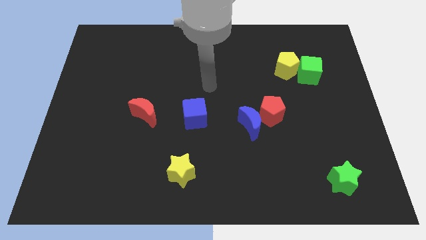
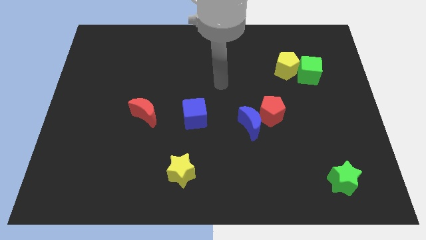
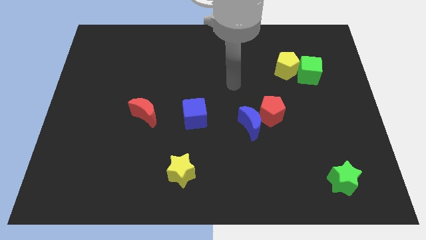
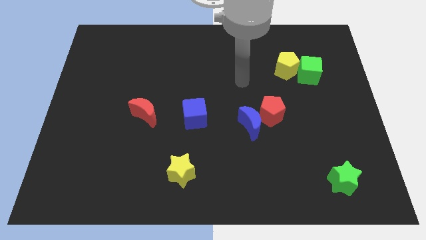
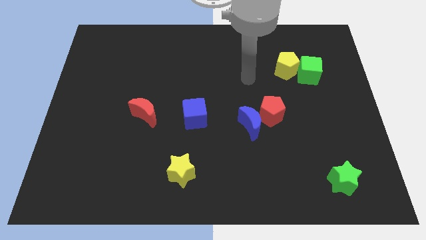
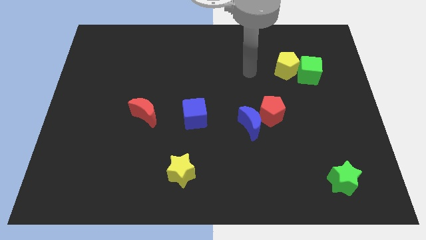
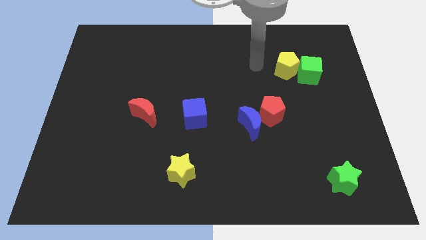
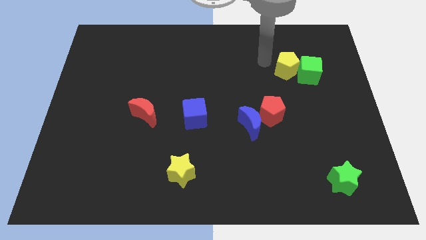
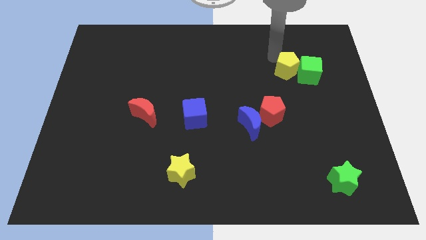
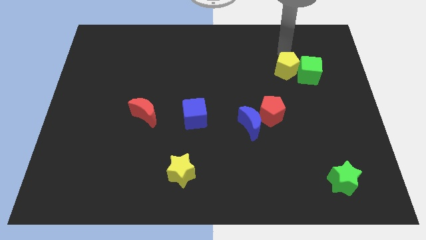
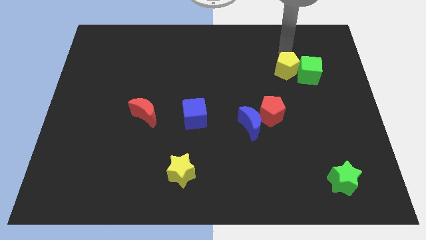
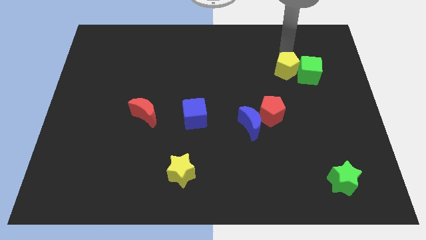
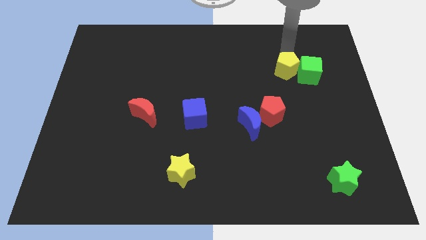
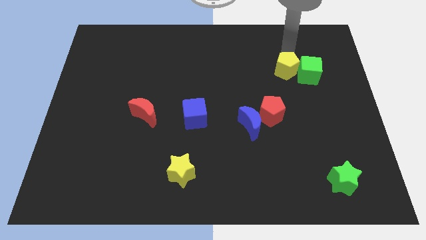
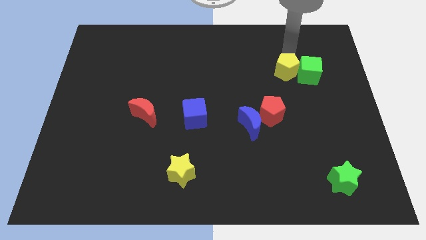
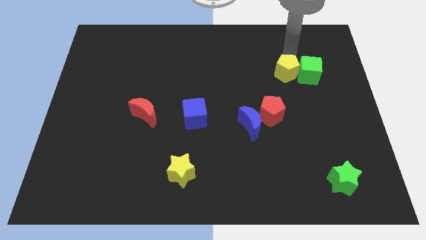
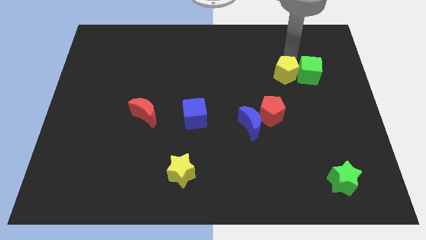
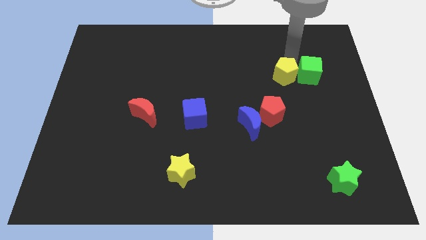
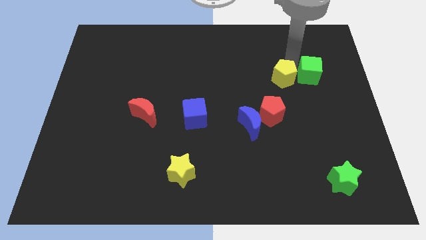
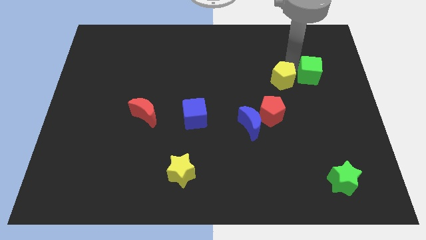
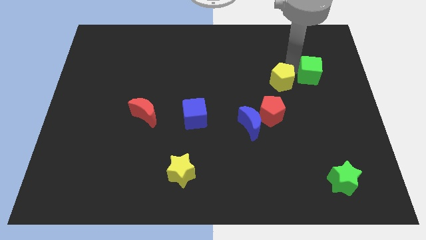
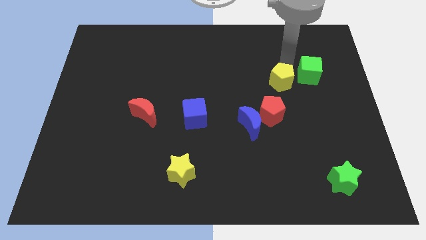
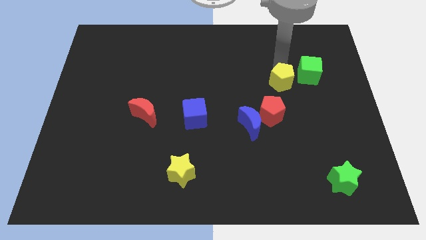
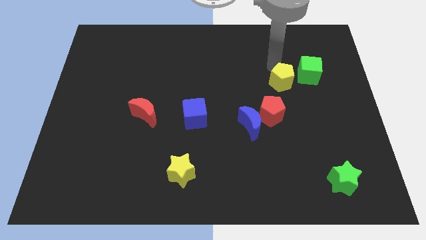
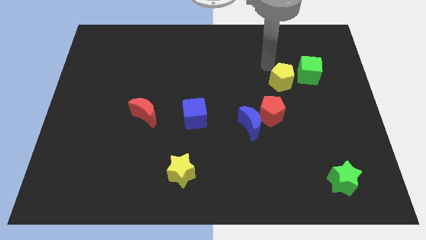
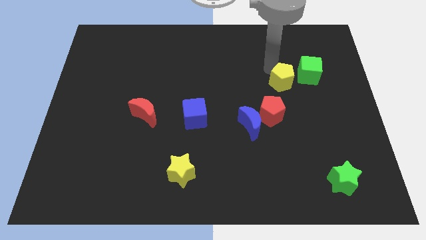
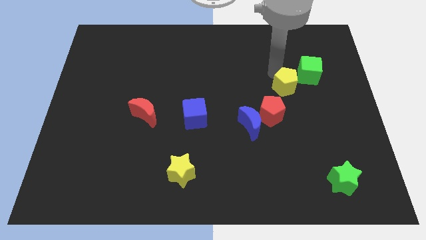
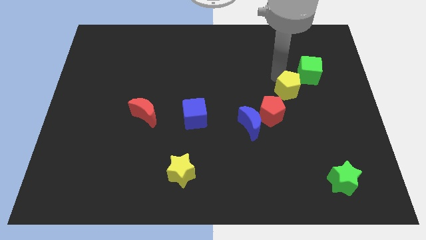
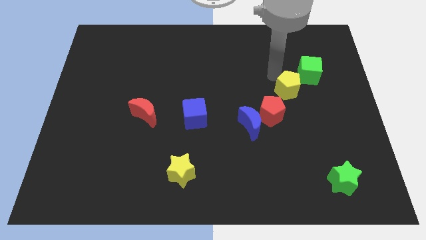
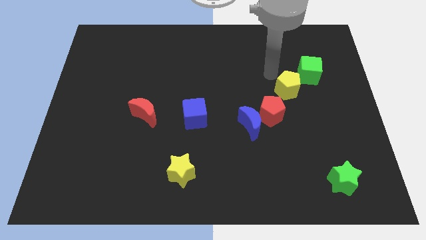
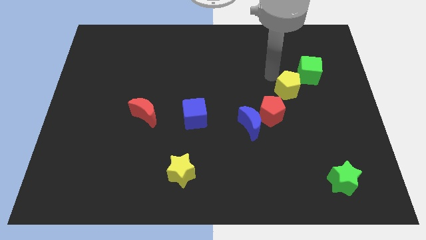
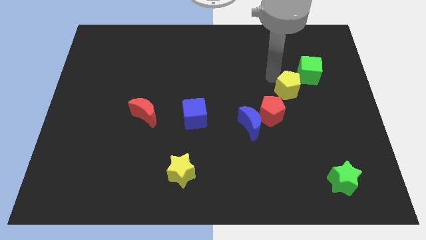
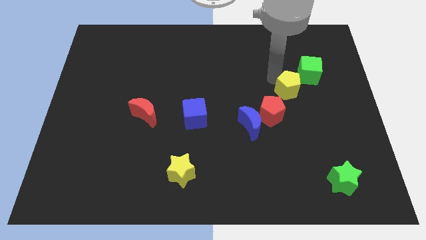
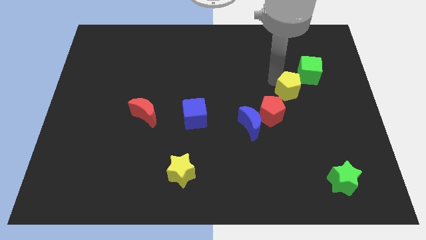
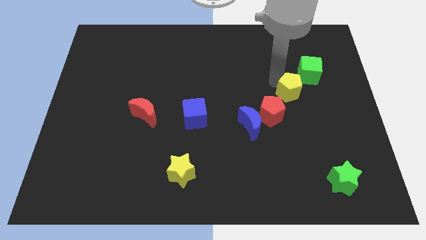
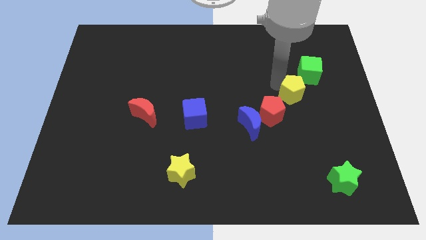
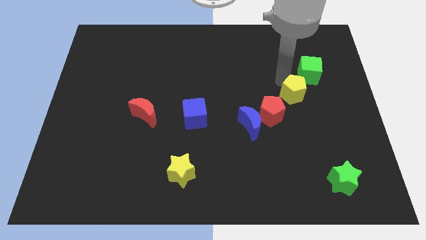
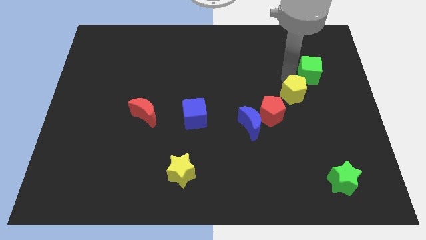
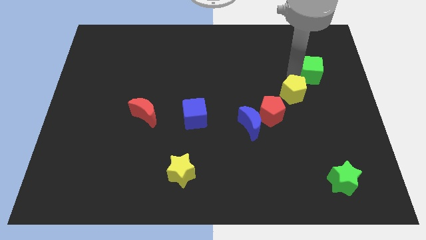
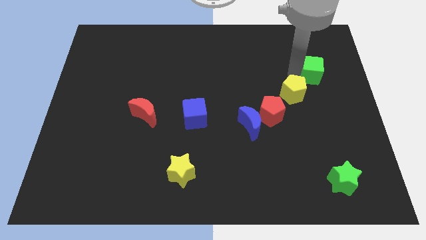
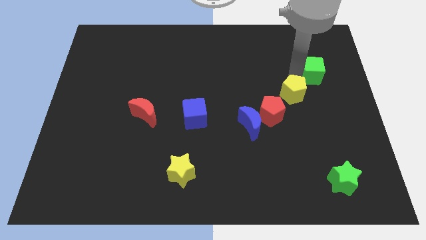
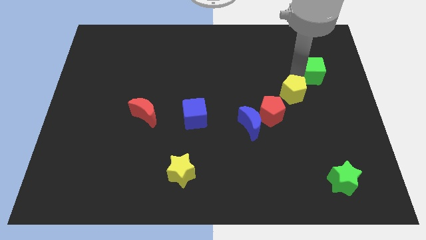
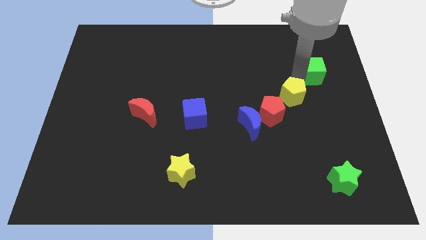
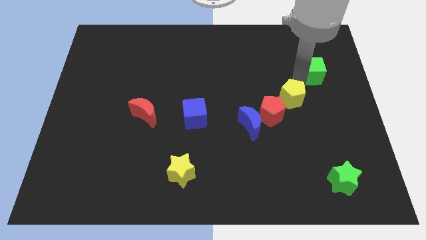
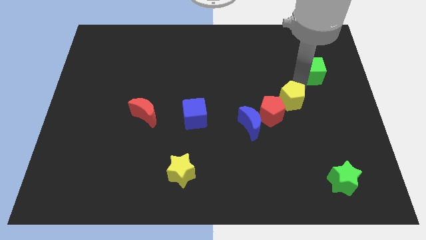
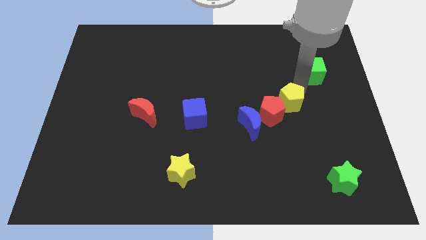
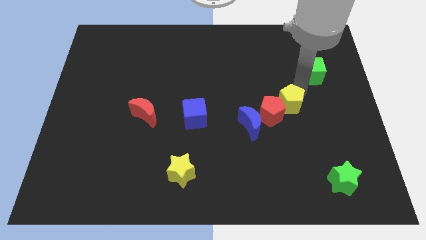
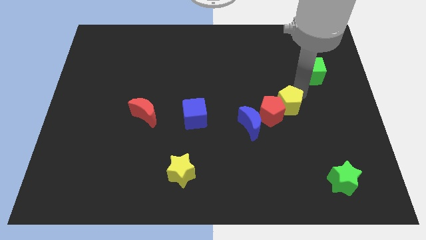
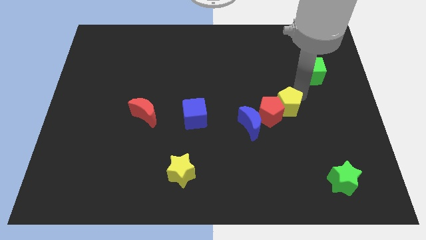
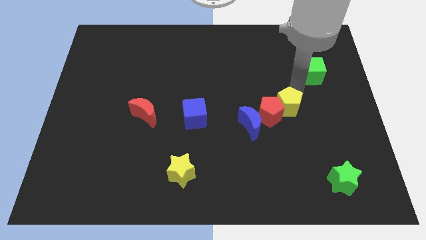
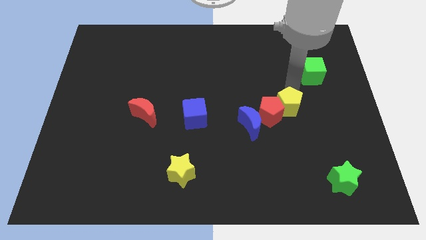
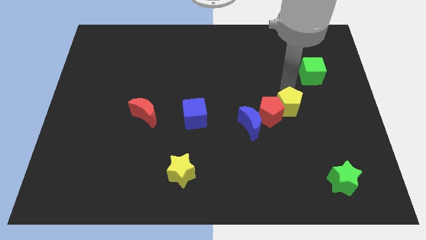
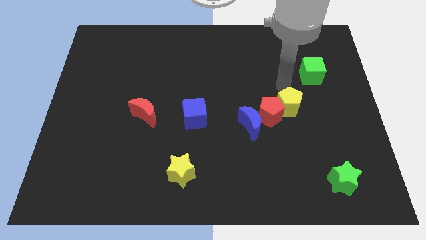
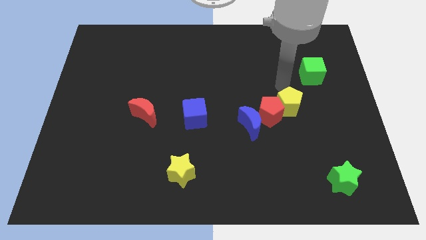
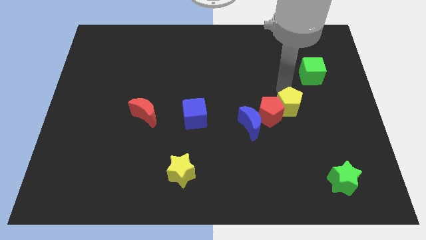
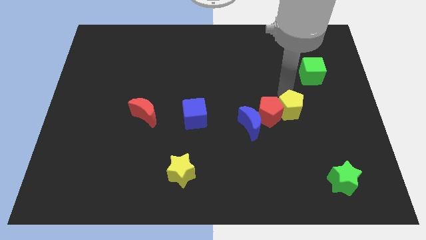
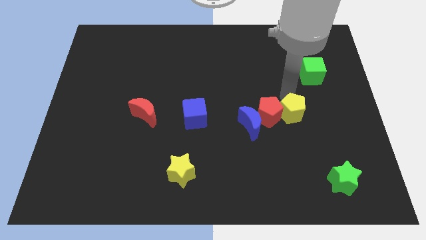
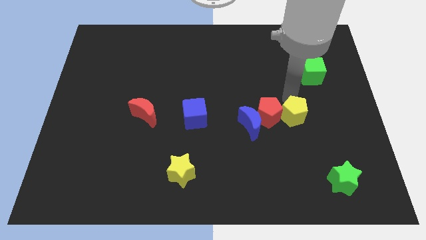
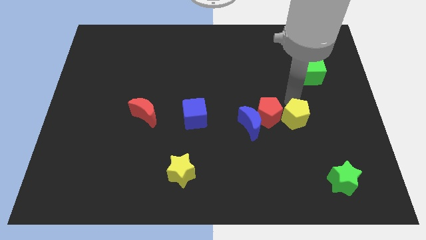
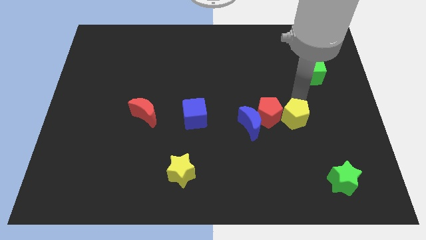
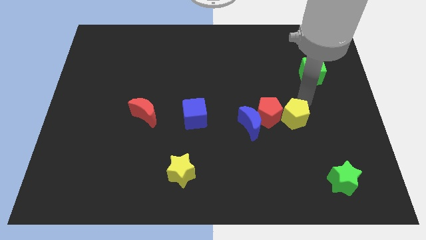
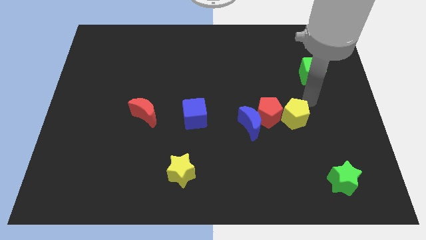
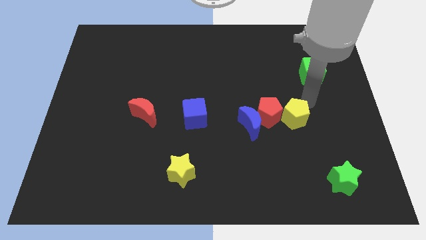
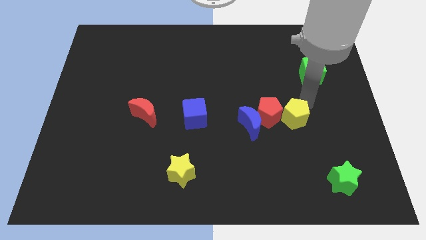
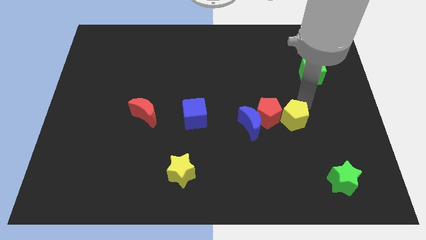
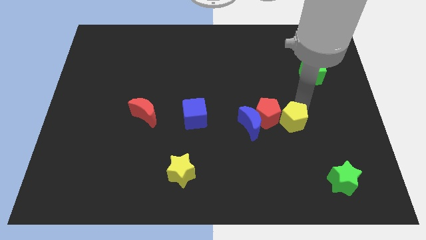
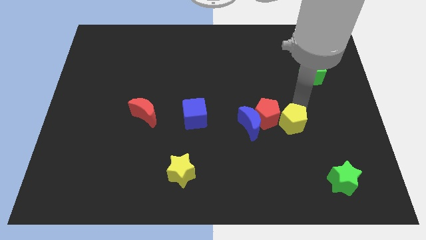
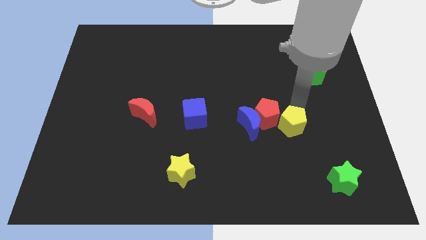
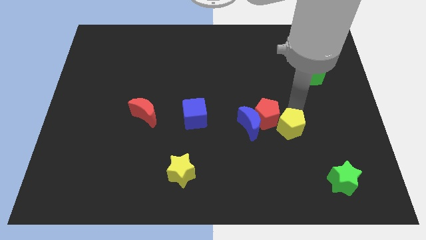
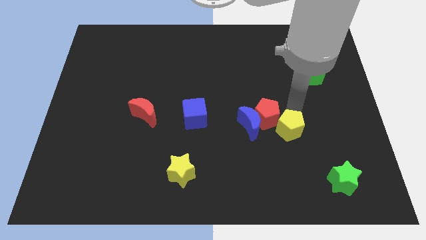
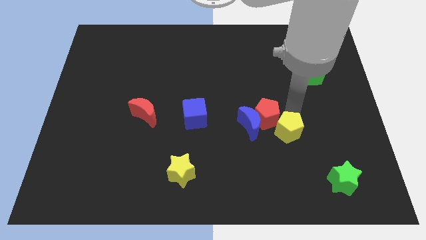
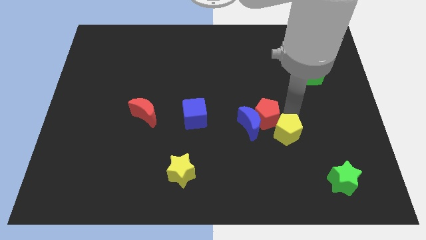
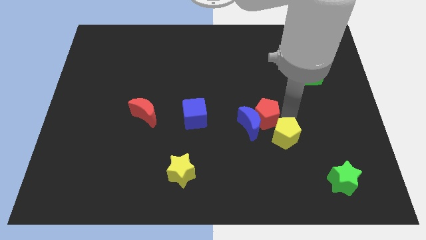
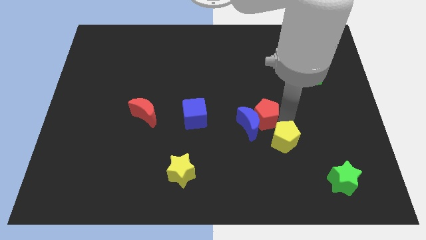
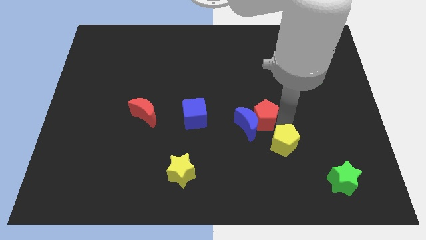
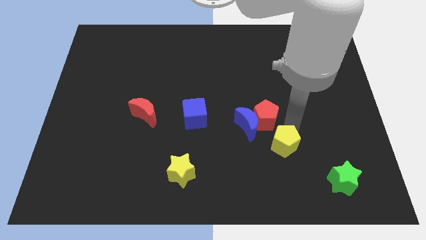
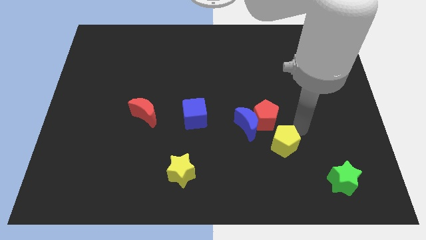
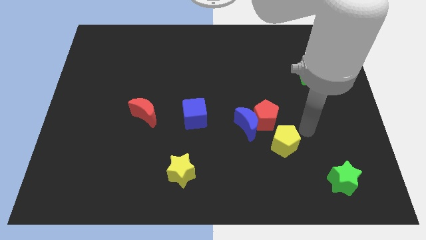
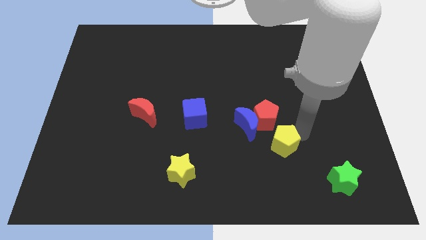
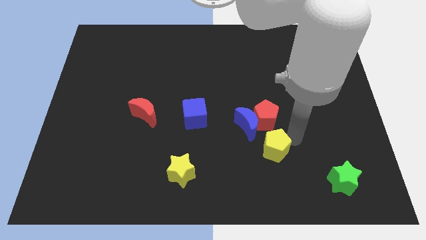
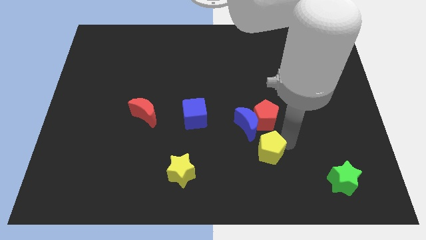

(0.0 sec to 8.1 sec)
slide the yellow pentagon to the bottom of the blue moon
